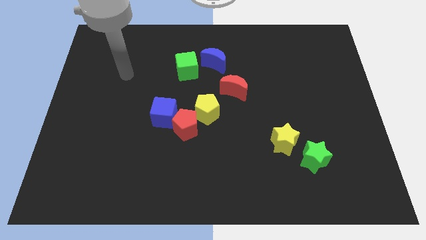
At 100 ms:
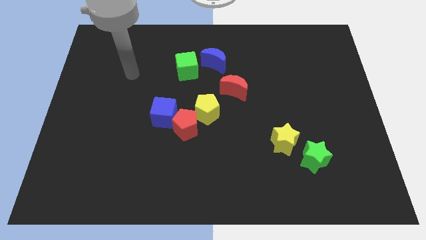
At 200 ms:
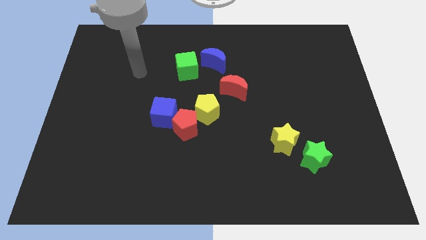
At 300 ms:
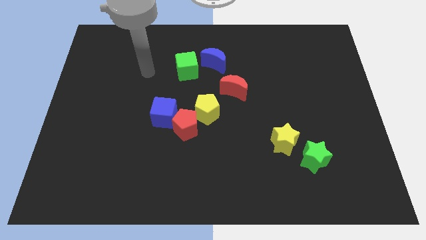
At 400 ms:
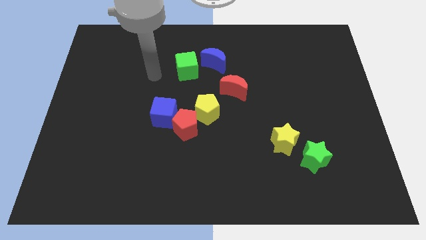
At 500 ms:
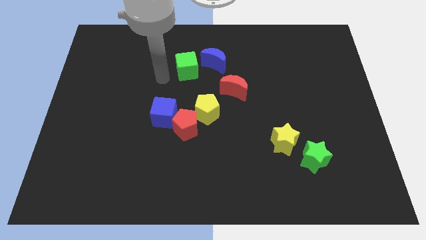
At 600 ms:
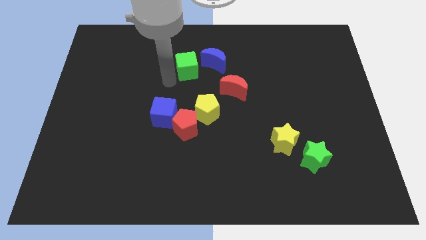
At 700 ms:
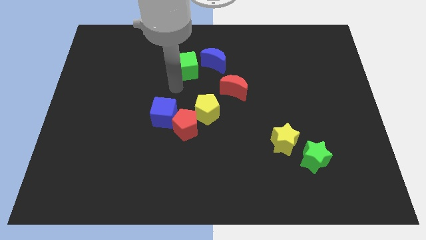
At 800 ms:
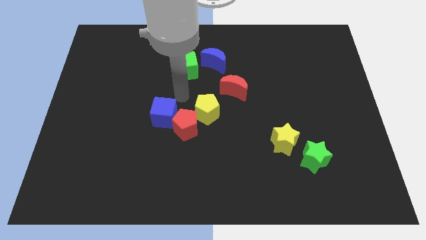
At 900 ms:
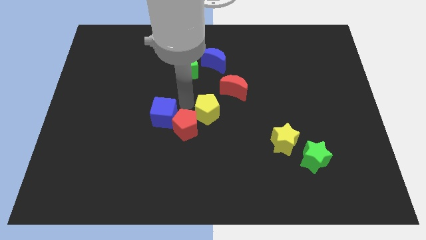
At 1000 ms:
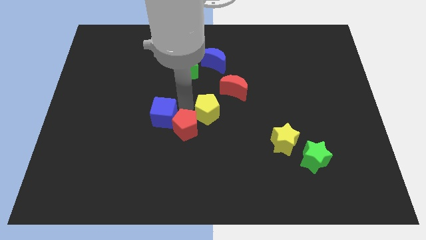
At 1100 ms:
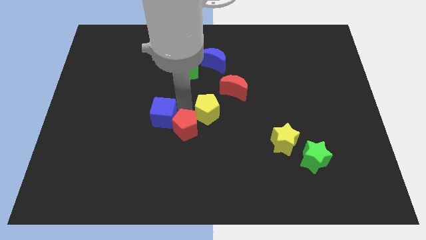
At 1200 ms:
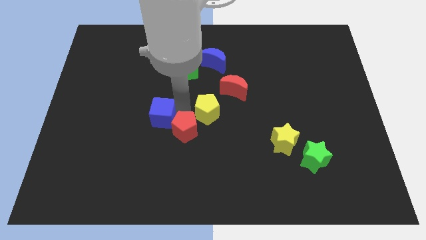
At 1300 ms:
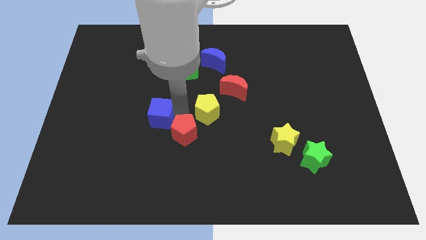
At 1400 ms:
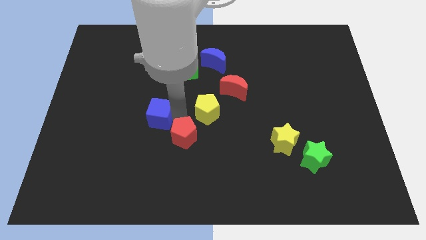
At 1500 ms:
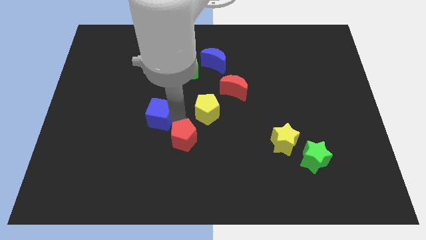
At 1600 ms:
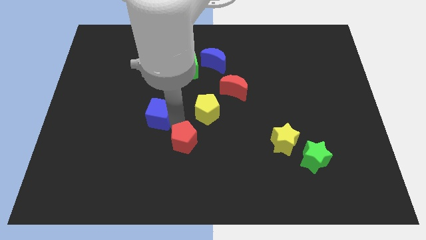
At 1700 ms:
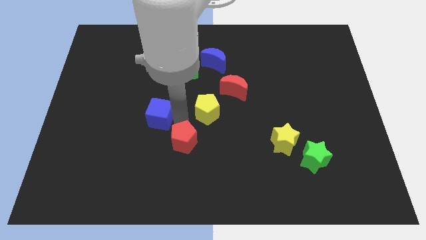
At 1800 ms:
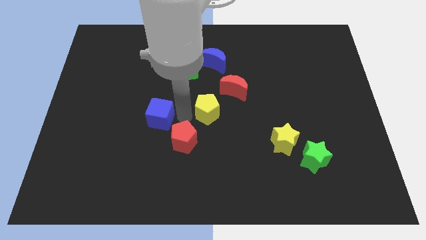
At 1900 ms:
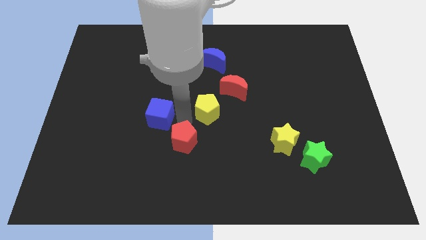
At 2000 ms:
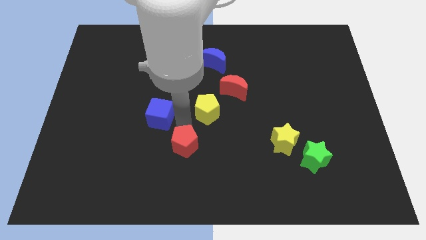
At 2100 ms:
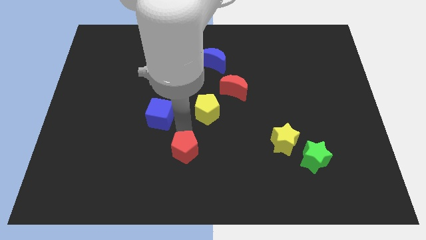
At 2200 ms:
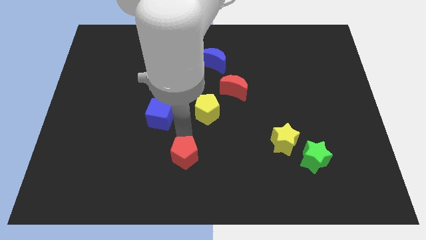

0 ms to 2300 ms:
pull the red pentagon apart from the blue cube and yellow pentagon

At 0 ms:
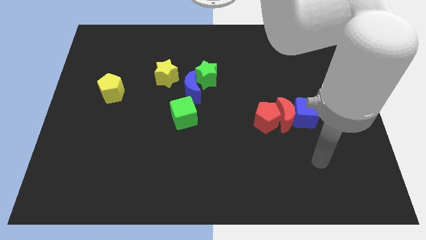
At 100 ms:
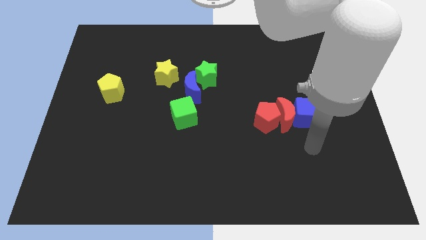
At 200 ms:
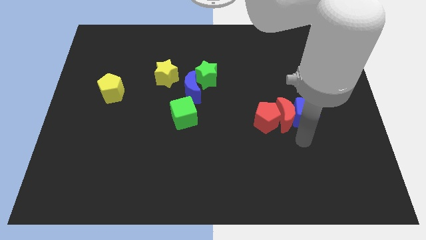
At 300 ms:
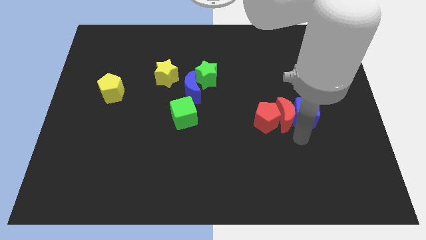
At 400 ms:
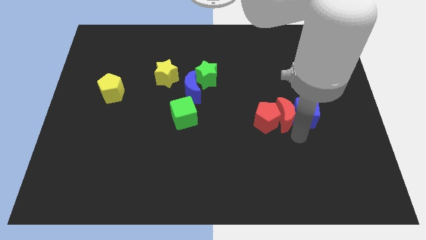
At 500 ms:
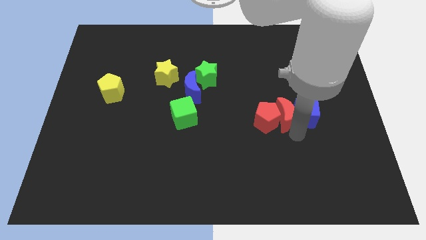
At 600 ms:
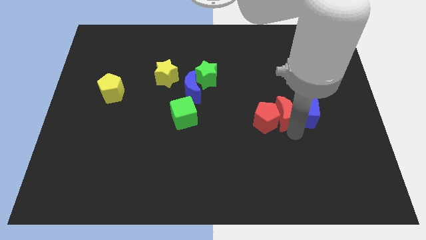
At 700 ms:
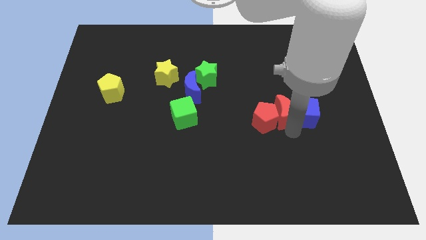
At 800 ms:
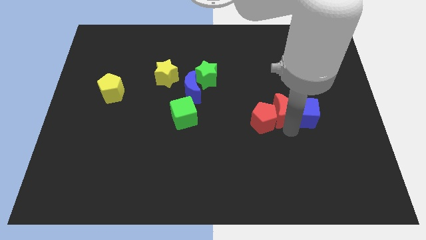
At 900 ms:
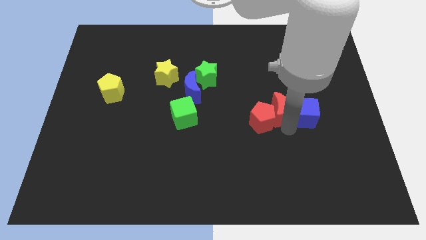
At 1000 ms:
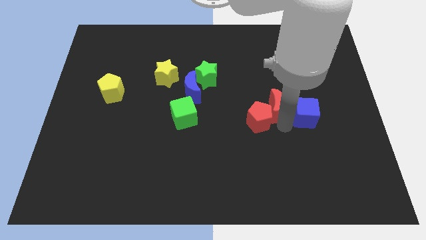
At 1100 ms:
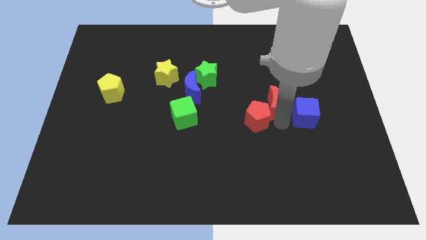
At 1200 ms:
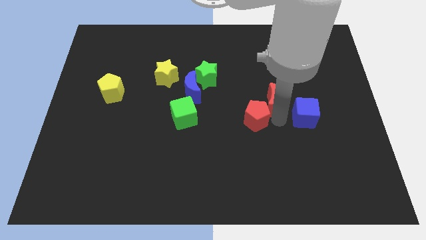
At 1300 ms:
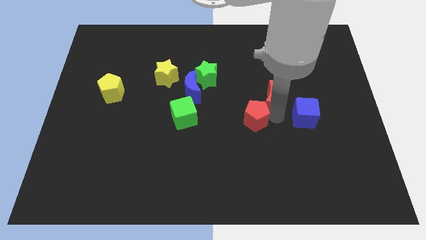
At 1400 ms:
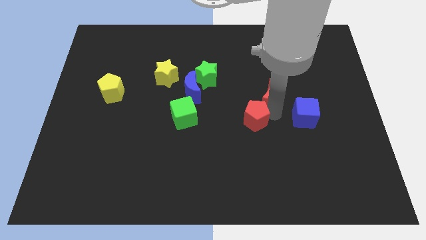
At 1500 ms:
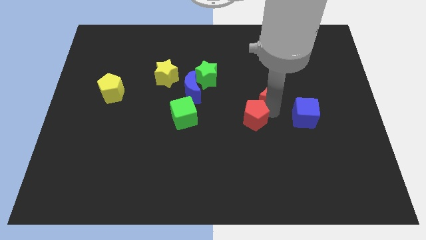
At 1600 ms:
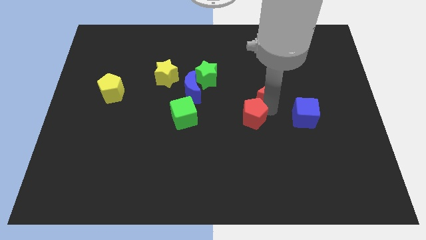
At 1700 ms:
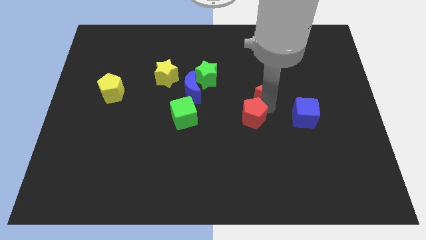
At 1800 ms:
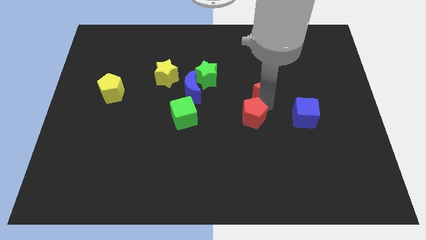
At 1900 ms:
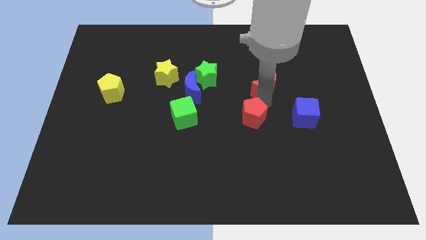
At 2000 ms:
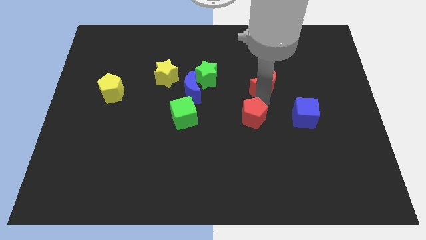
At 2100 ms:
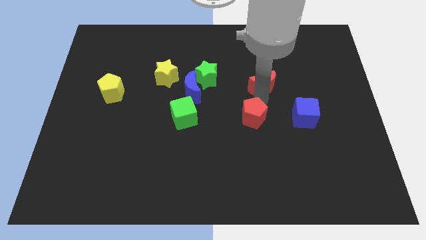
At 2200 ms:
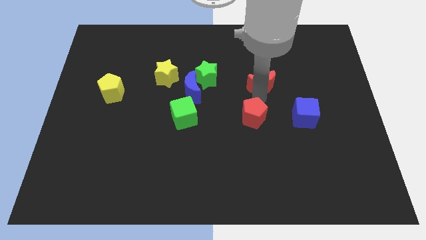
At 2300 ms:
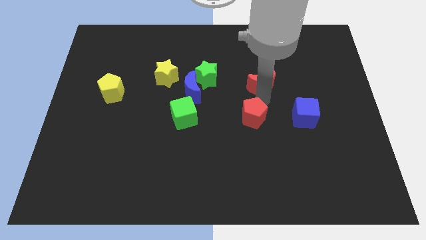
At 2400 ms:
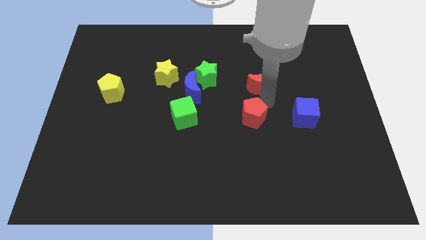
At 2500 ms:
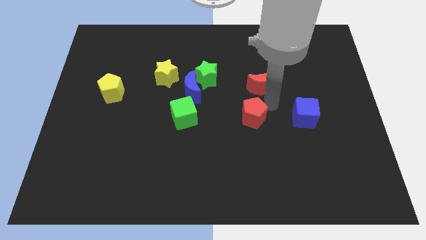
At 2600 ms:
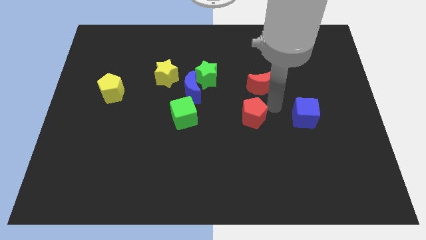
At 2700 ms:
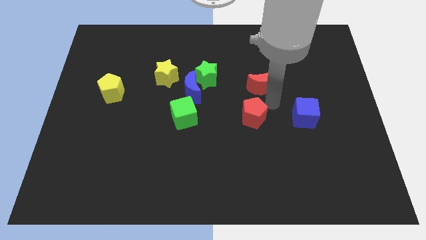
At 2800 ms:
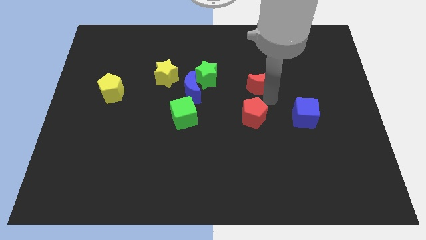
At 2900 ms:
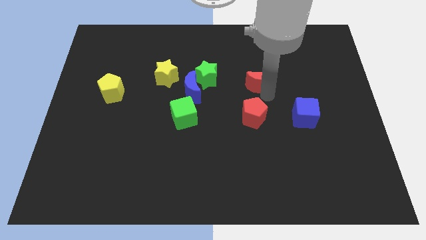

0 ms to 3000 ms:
separate the red moon from the red pentagon and blue cube

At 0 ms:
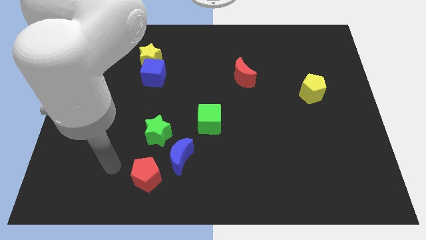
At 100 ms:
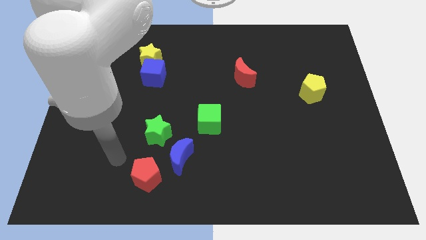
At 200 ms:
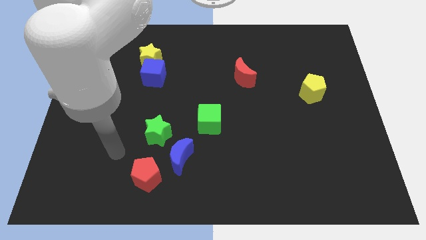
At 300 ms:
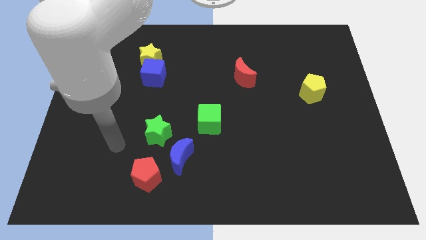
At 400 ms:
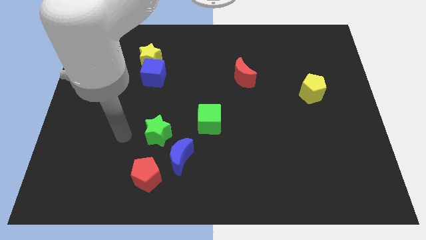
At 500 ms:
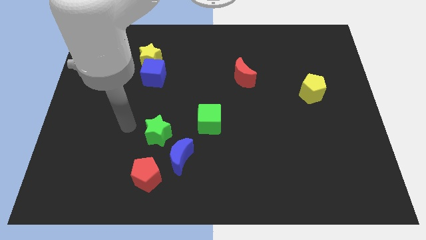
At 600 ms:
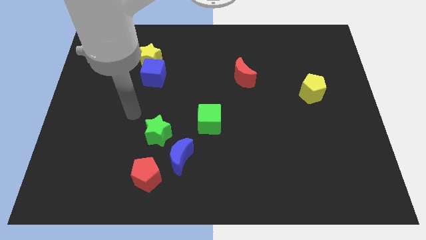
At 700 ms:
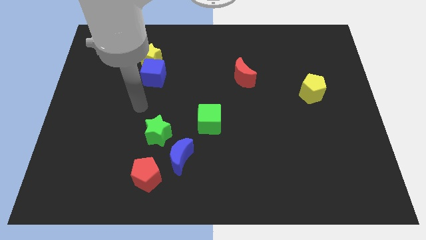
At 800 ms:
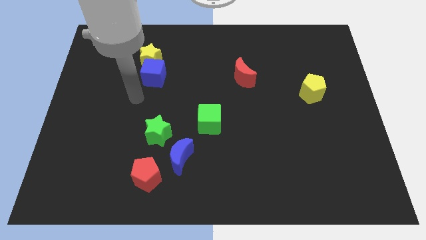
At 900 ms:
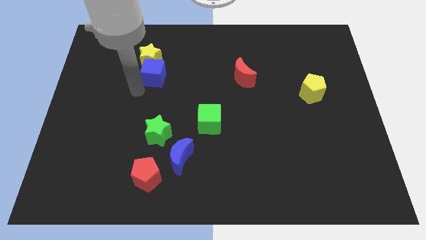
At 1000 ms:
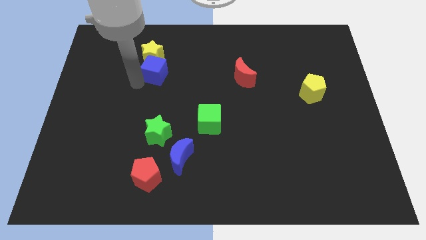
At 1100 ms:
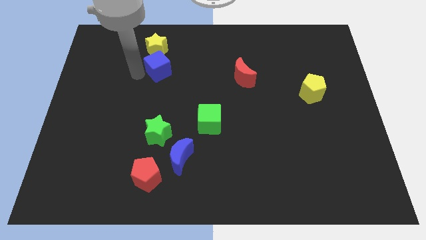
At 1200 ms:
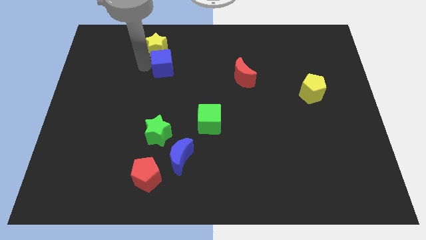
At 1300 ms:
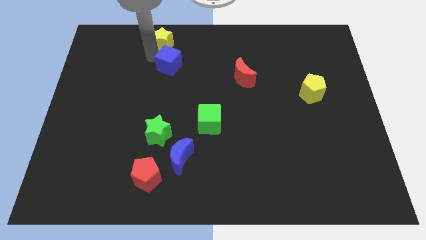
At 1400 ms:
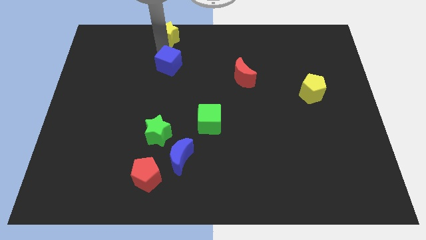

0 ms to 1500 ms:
pull the blue cube apart from the yellow star

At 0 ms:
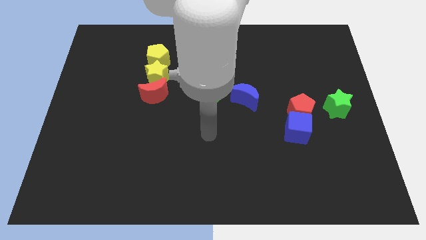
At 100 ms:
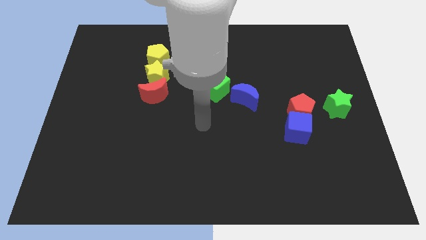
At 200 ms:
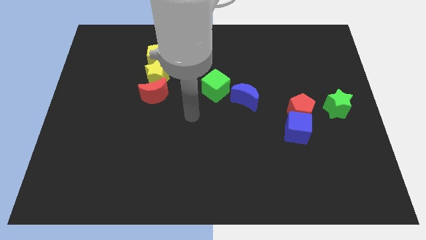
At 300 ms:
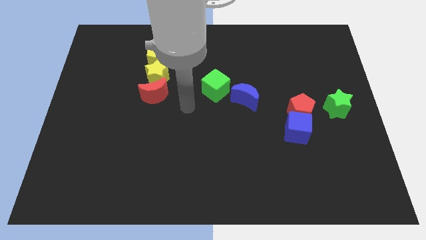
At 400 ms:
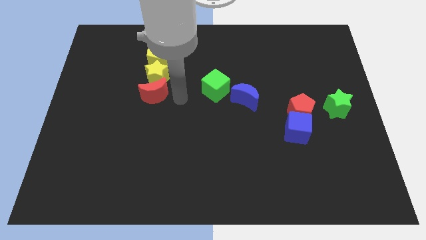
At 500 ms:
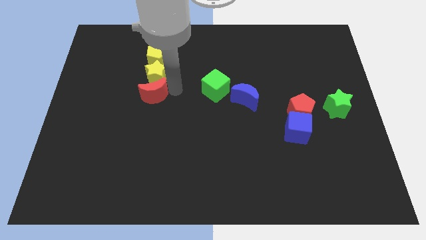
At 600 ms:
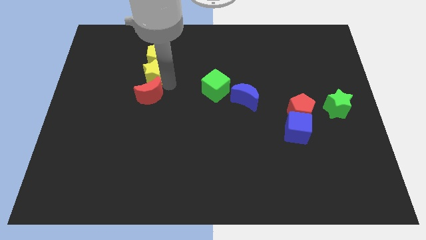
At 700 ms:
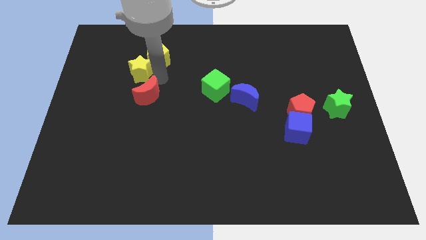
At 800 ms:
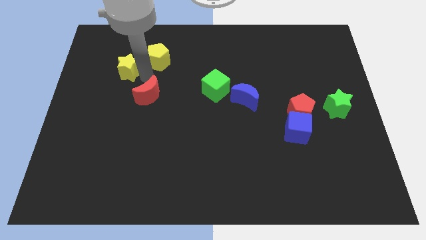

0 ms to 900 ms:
pull the red moon apart from the yellow star

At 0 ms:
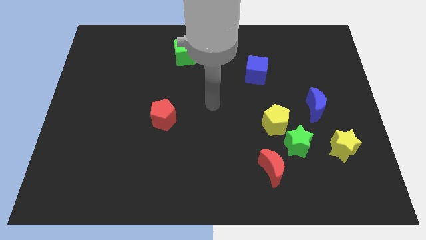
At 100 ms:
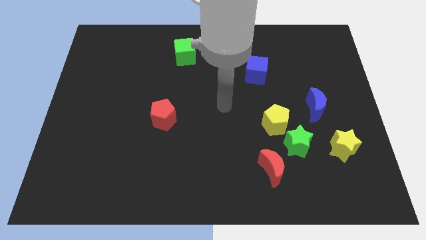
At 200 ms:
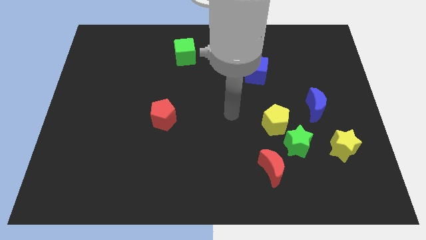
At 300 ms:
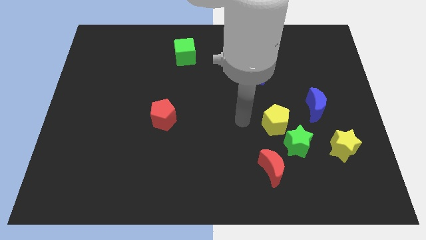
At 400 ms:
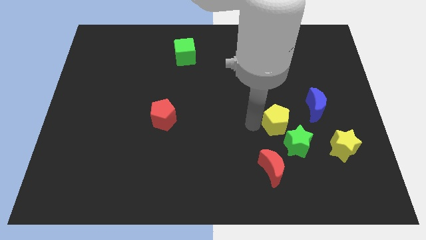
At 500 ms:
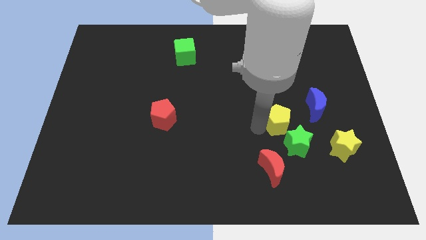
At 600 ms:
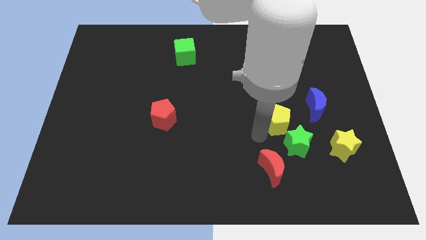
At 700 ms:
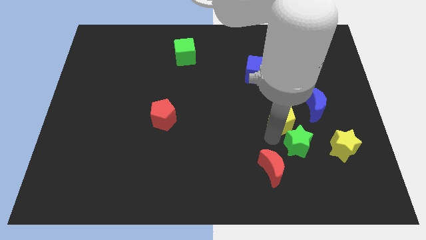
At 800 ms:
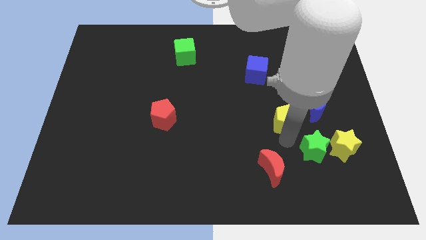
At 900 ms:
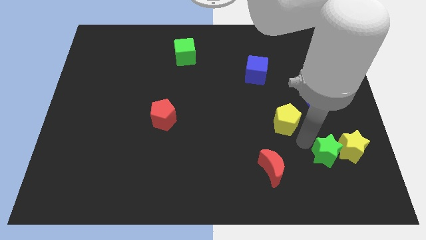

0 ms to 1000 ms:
move the yellow pentagon away from the green star

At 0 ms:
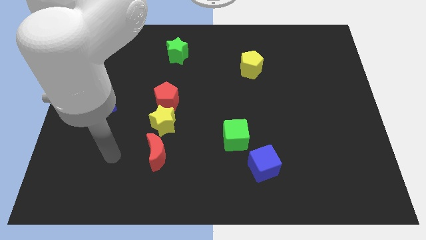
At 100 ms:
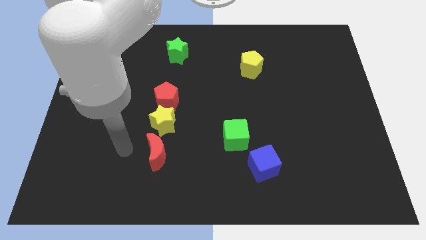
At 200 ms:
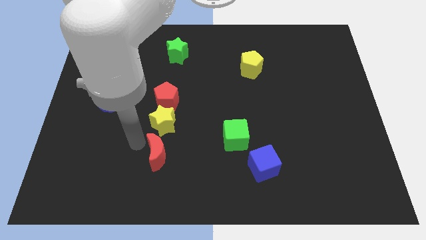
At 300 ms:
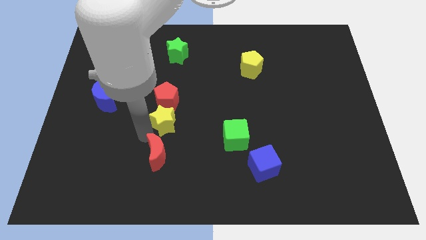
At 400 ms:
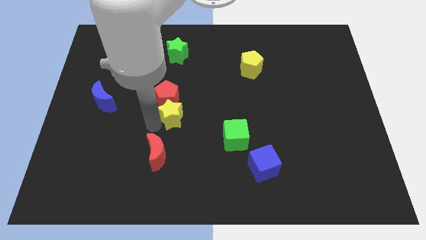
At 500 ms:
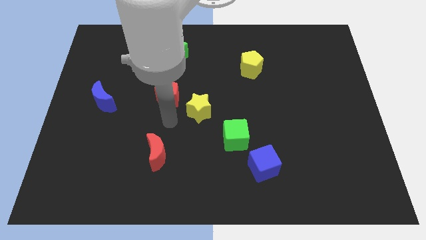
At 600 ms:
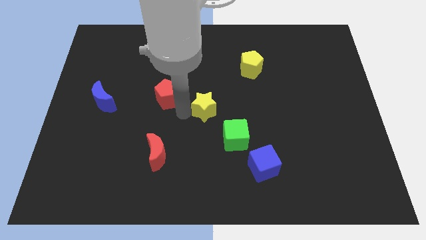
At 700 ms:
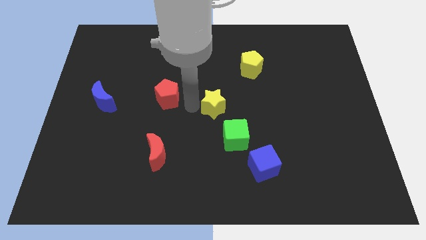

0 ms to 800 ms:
move the red pentagon away from the yellow star
